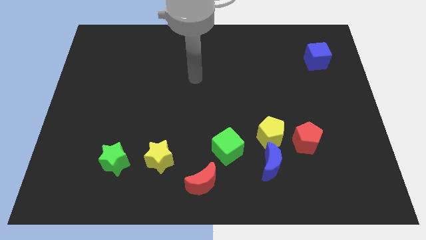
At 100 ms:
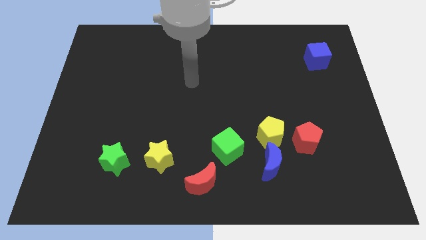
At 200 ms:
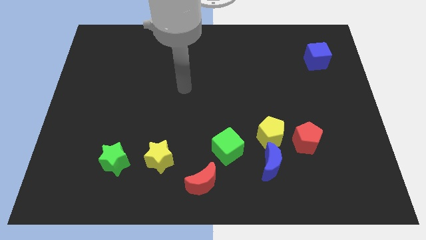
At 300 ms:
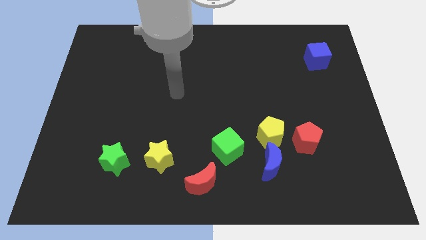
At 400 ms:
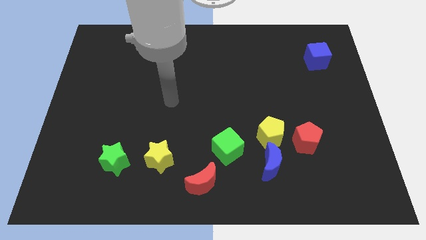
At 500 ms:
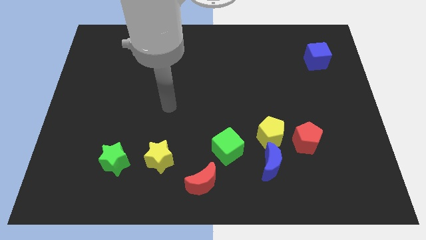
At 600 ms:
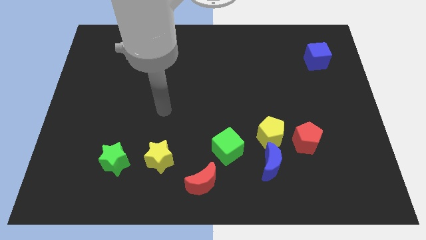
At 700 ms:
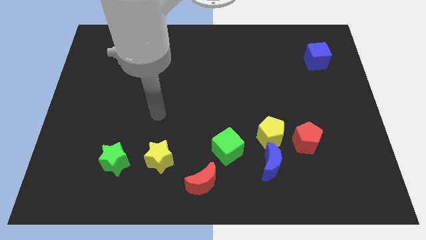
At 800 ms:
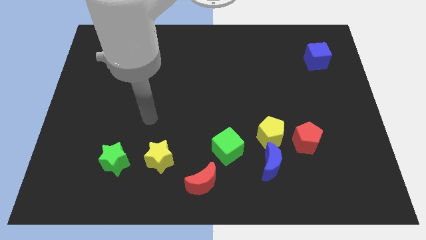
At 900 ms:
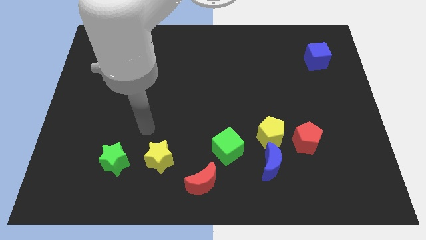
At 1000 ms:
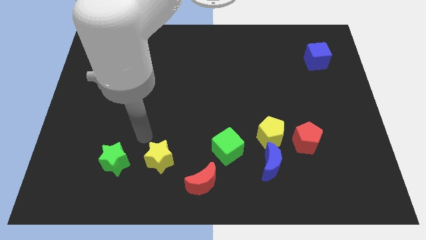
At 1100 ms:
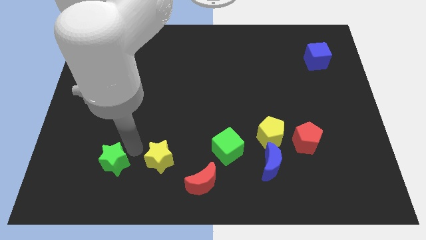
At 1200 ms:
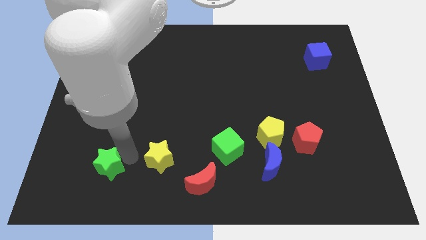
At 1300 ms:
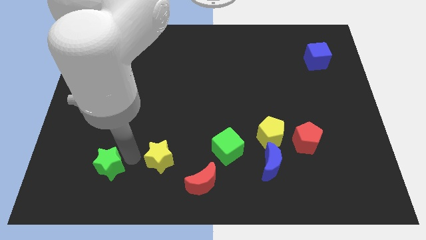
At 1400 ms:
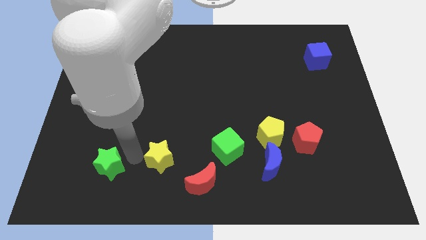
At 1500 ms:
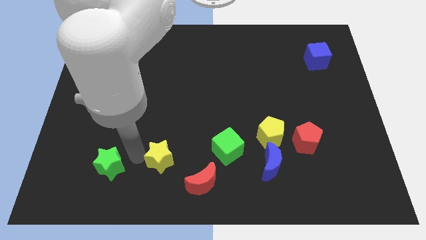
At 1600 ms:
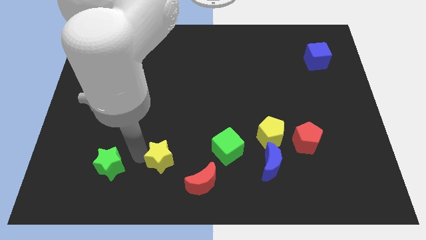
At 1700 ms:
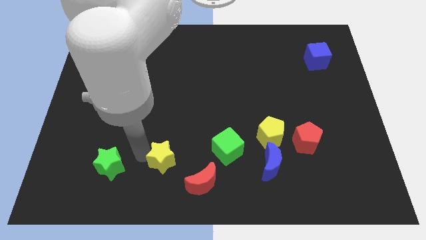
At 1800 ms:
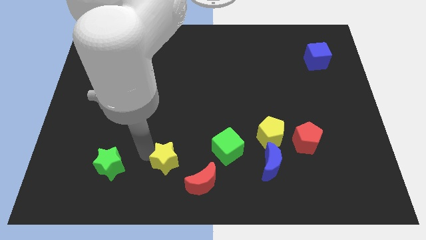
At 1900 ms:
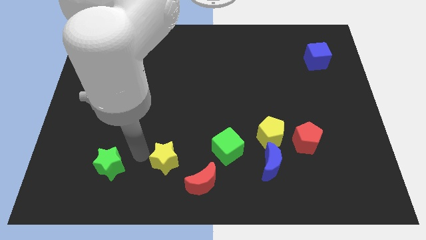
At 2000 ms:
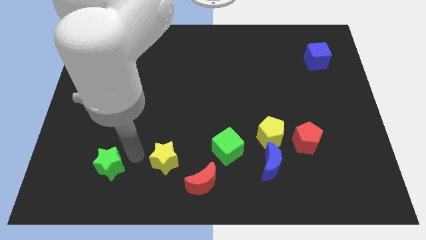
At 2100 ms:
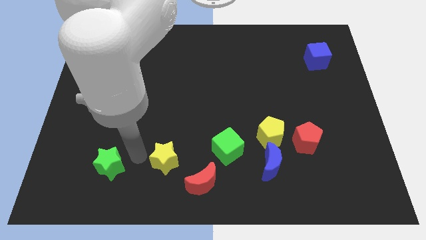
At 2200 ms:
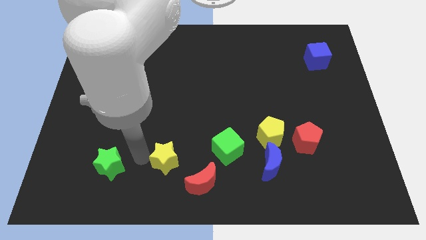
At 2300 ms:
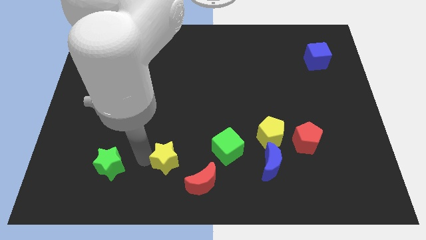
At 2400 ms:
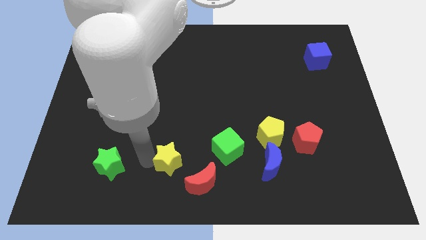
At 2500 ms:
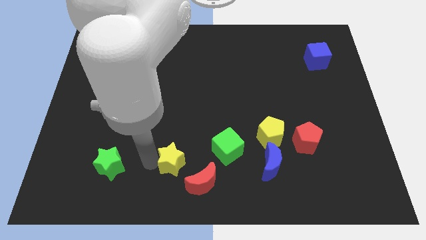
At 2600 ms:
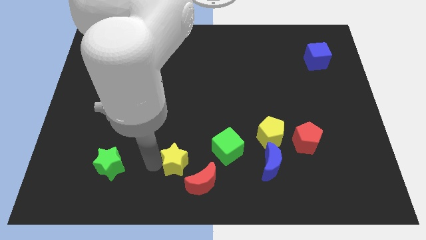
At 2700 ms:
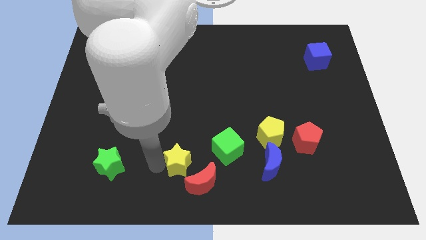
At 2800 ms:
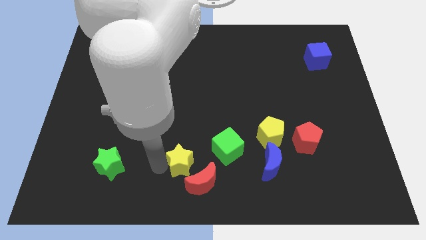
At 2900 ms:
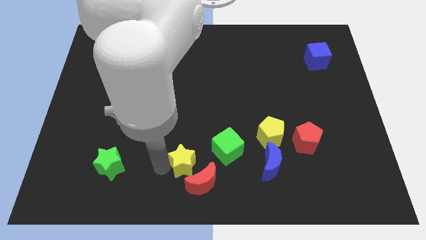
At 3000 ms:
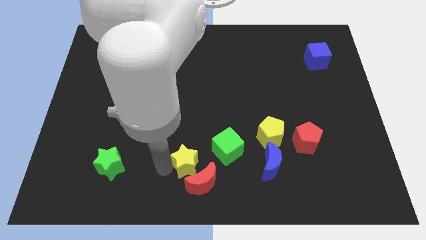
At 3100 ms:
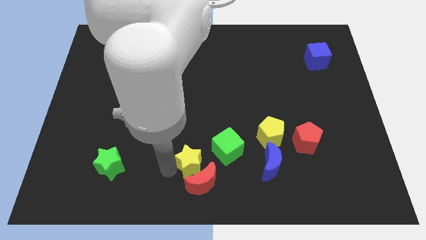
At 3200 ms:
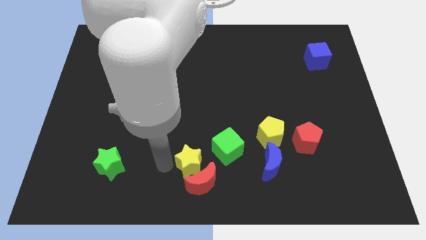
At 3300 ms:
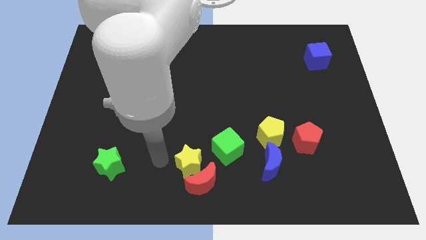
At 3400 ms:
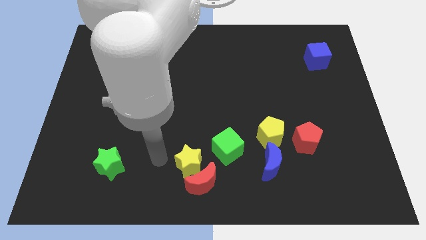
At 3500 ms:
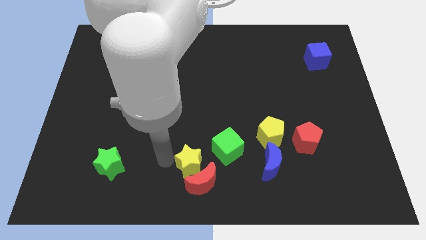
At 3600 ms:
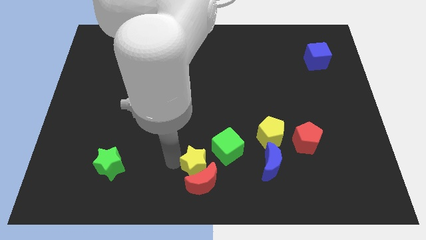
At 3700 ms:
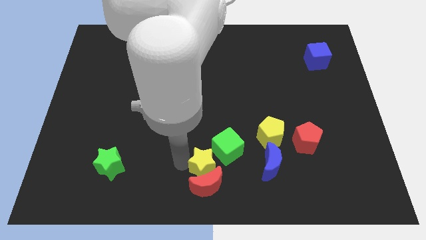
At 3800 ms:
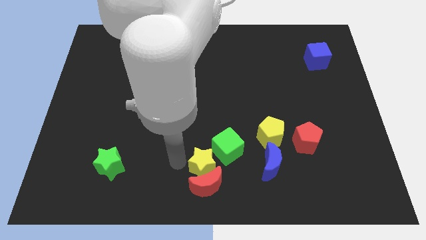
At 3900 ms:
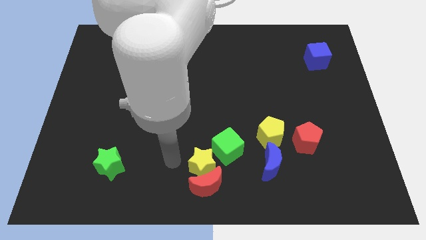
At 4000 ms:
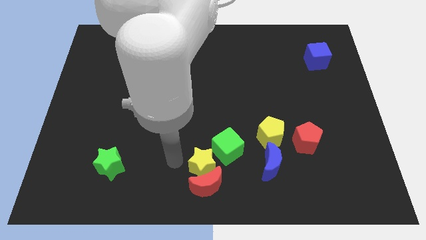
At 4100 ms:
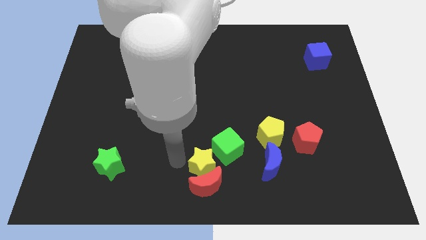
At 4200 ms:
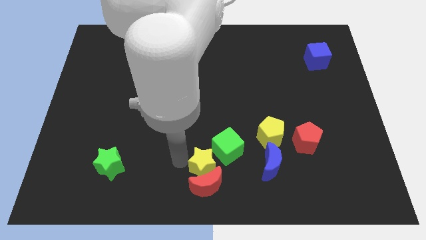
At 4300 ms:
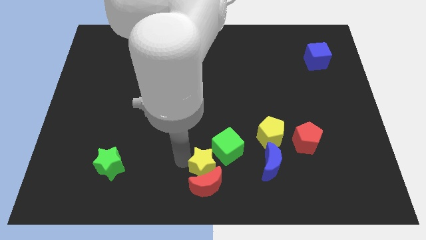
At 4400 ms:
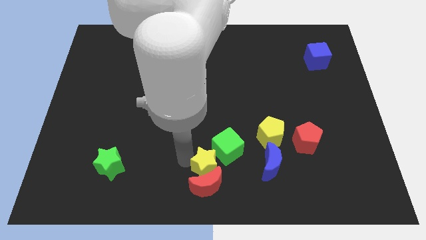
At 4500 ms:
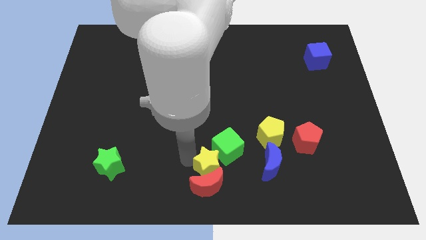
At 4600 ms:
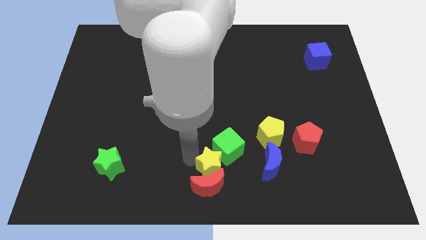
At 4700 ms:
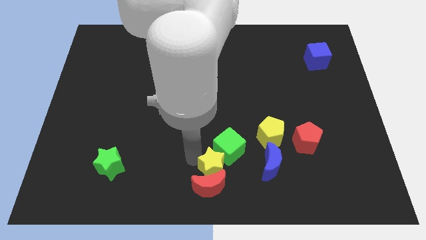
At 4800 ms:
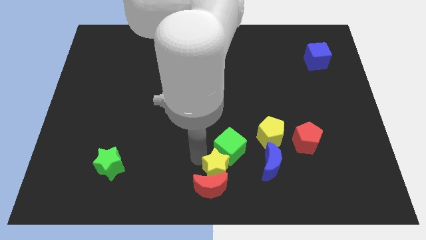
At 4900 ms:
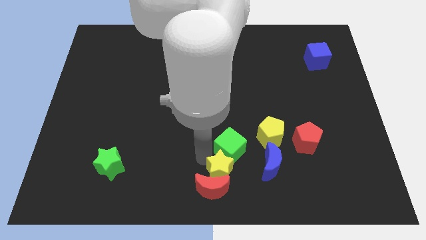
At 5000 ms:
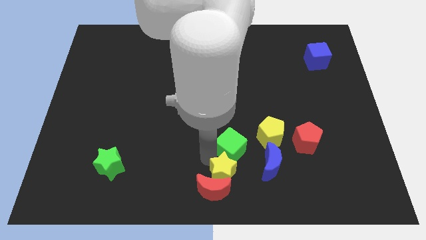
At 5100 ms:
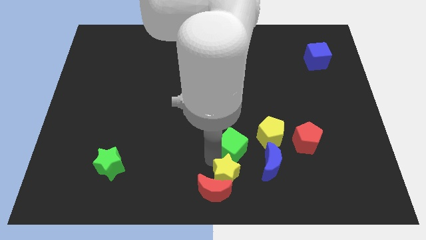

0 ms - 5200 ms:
push the yellow star just right of the red moon

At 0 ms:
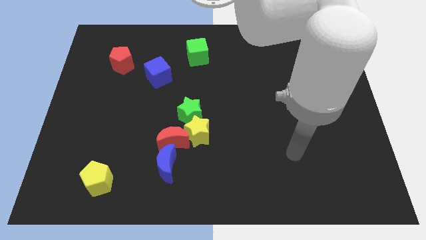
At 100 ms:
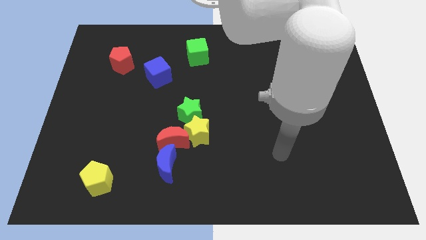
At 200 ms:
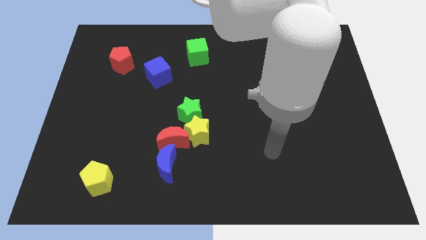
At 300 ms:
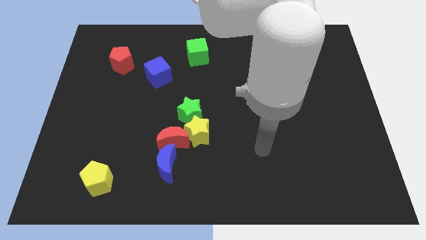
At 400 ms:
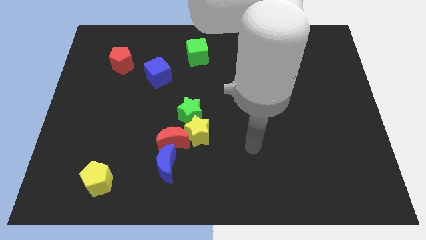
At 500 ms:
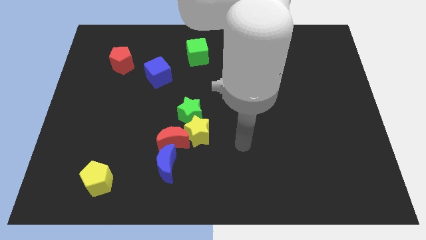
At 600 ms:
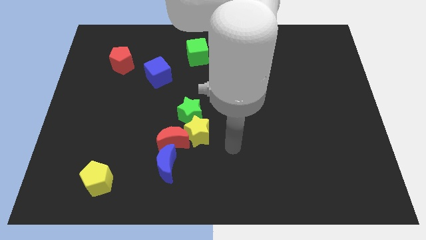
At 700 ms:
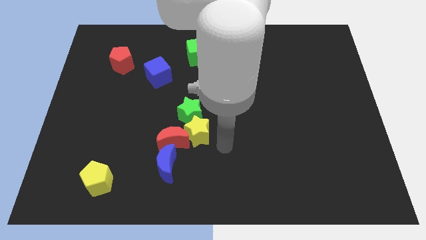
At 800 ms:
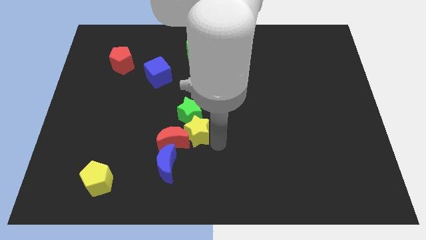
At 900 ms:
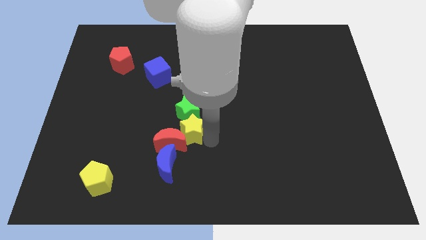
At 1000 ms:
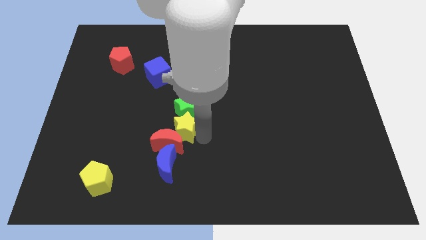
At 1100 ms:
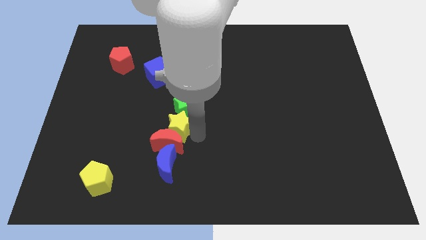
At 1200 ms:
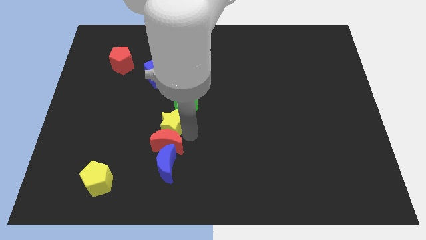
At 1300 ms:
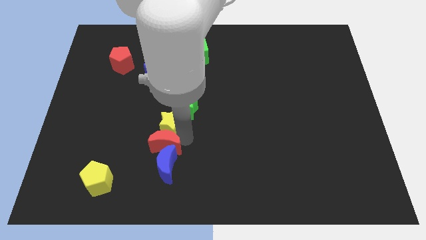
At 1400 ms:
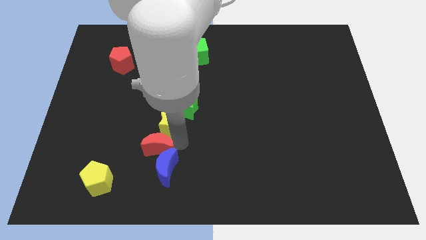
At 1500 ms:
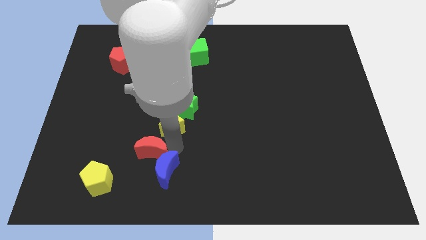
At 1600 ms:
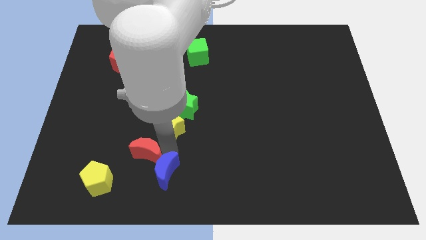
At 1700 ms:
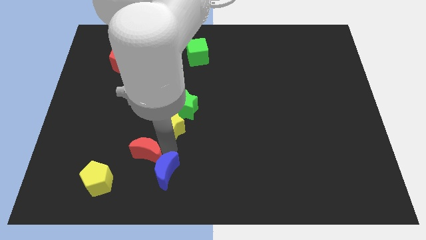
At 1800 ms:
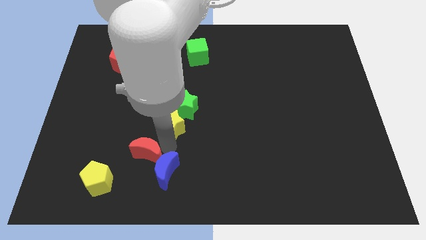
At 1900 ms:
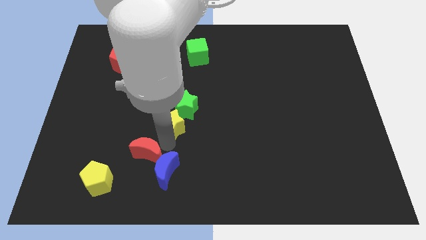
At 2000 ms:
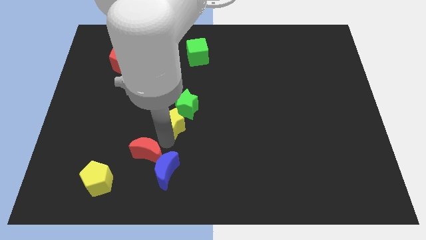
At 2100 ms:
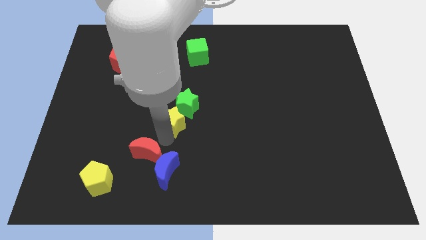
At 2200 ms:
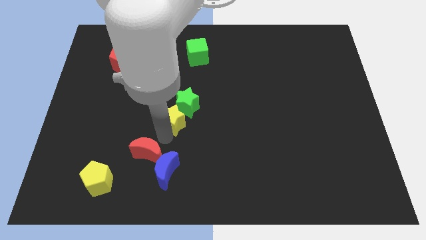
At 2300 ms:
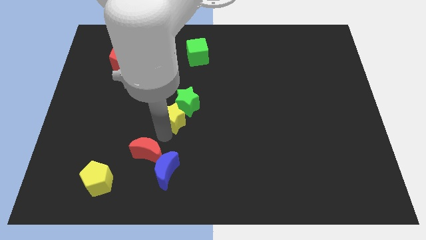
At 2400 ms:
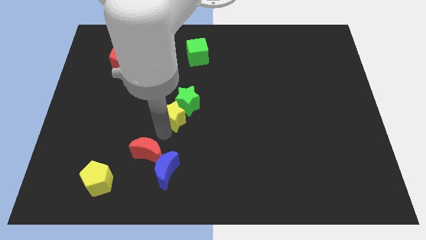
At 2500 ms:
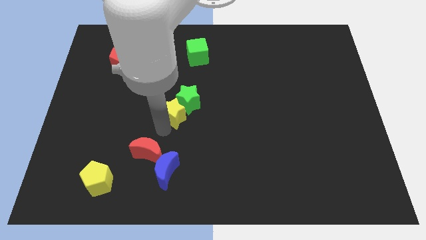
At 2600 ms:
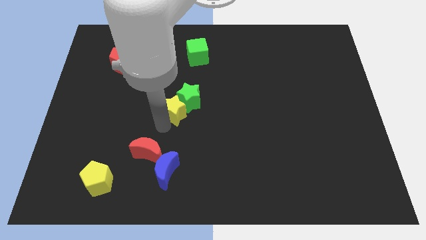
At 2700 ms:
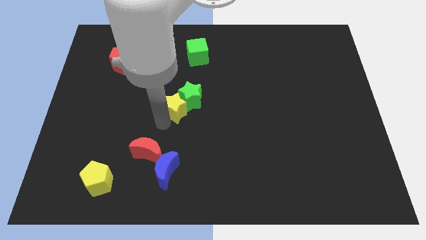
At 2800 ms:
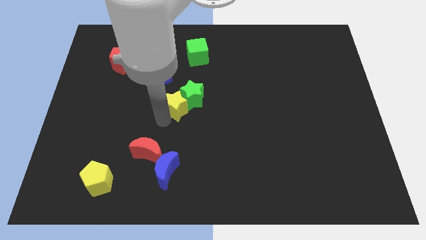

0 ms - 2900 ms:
put the yellow star to the bottom right side of the blue cube
